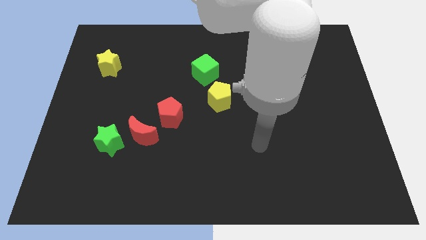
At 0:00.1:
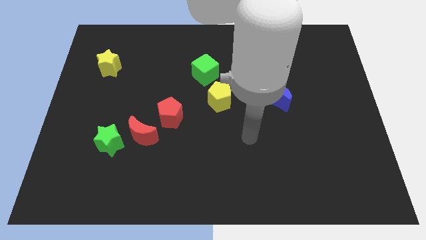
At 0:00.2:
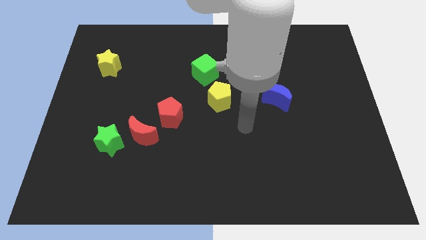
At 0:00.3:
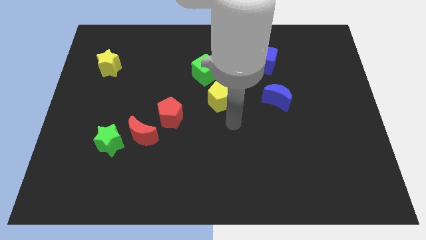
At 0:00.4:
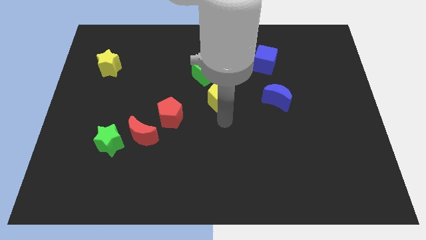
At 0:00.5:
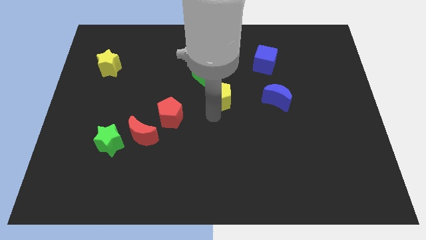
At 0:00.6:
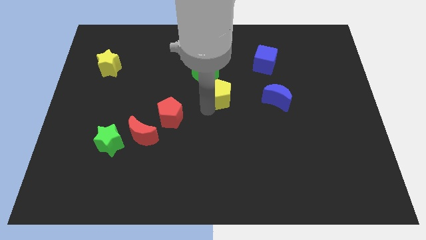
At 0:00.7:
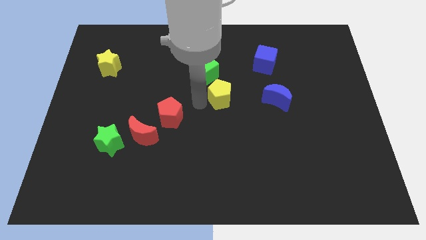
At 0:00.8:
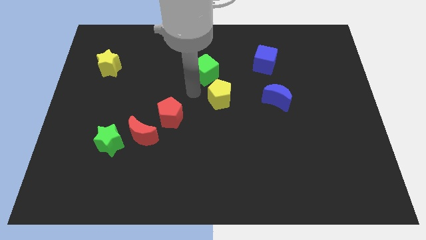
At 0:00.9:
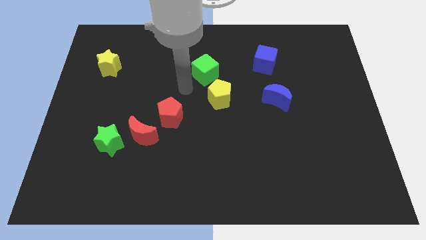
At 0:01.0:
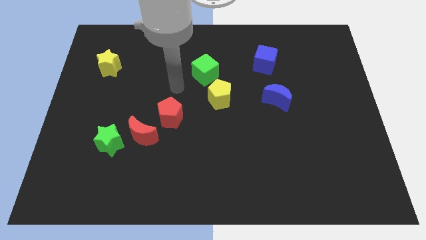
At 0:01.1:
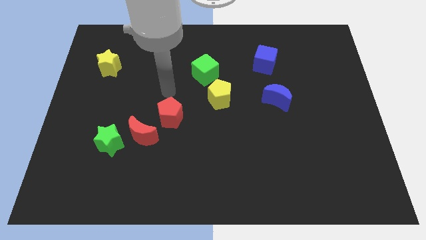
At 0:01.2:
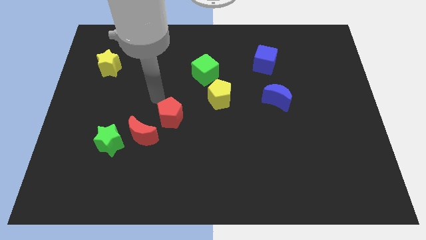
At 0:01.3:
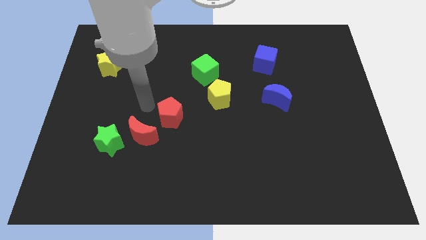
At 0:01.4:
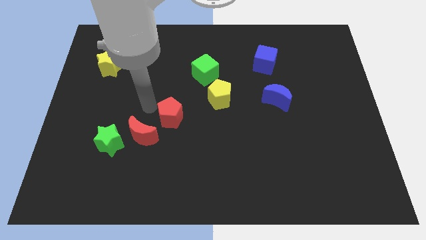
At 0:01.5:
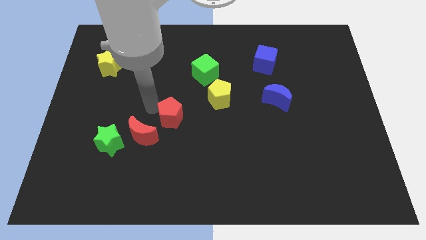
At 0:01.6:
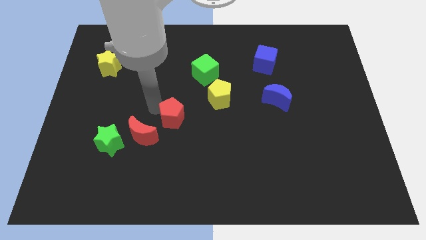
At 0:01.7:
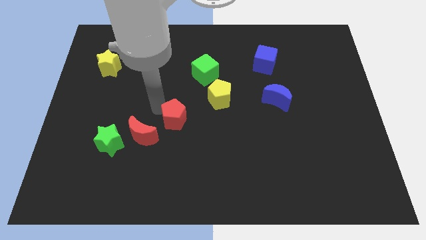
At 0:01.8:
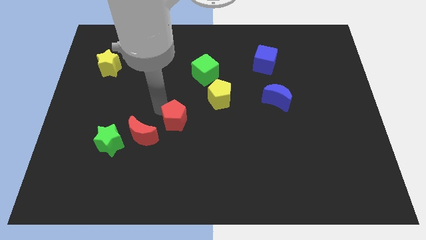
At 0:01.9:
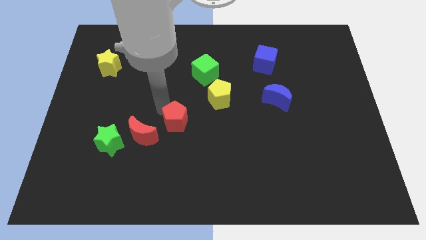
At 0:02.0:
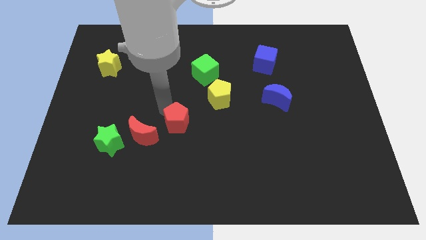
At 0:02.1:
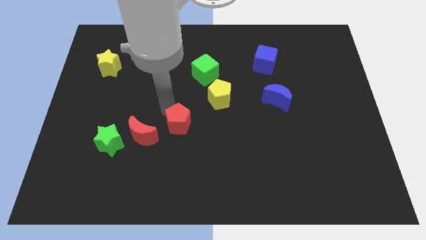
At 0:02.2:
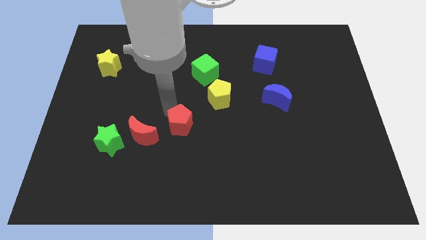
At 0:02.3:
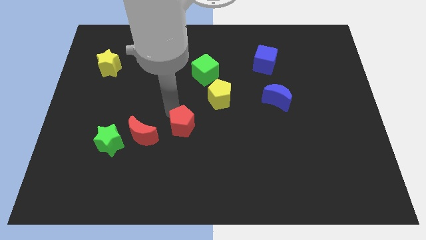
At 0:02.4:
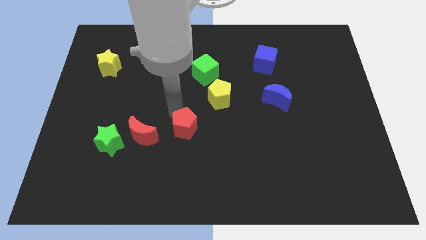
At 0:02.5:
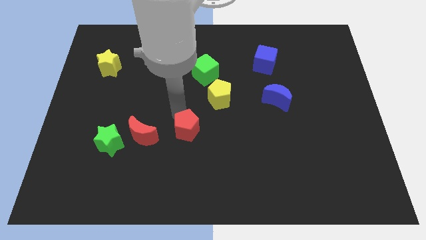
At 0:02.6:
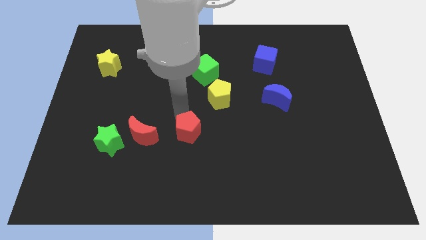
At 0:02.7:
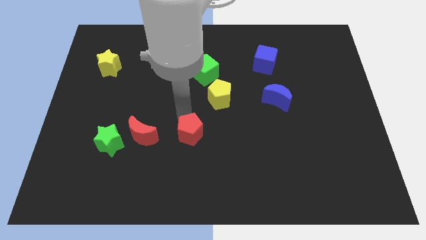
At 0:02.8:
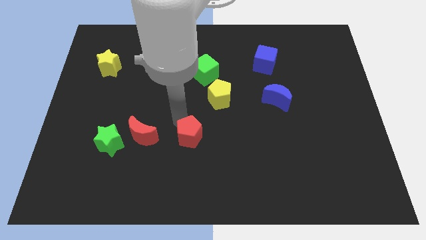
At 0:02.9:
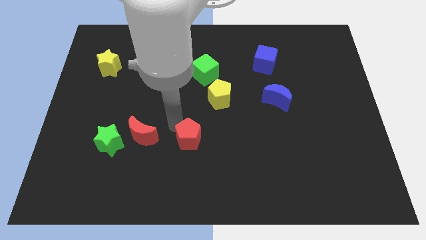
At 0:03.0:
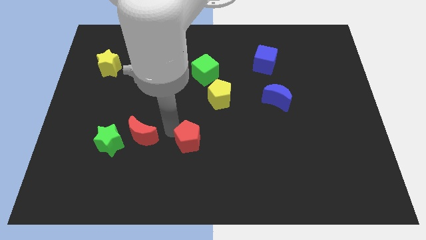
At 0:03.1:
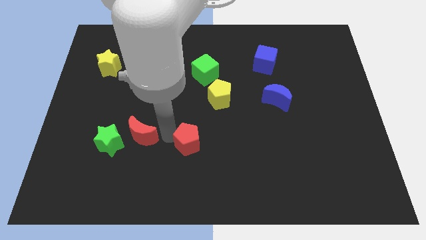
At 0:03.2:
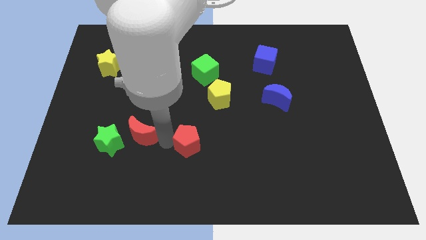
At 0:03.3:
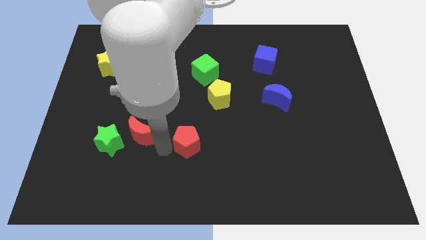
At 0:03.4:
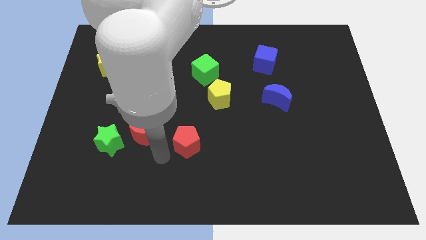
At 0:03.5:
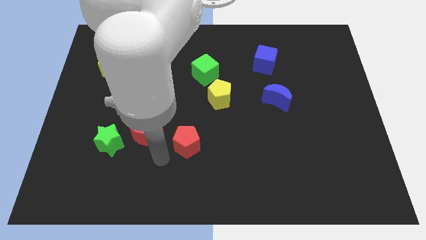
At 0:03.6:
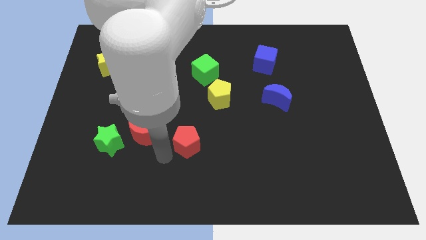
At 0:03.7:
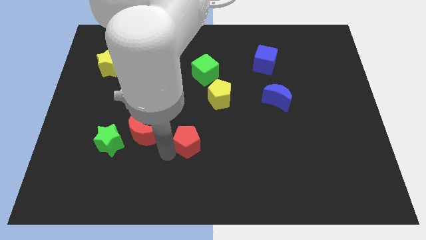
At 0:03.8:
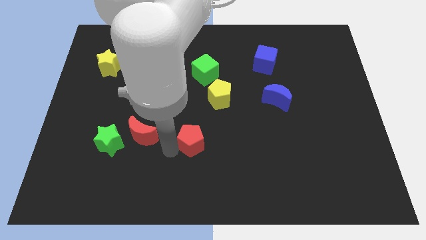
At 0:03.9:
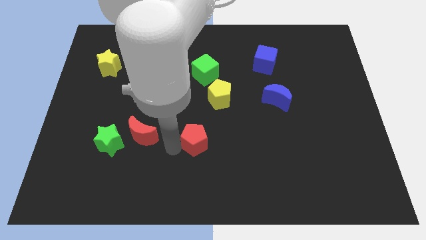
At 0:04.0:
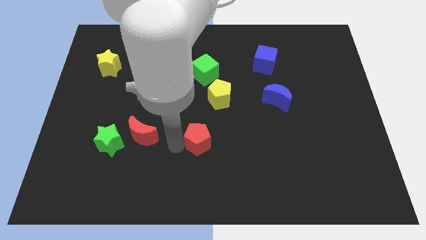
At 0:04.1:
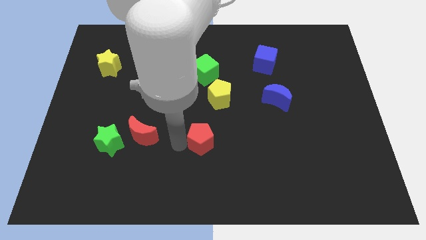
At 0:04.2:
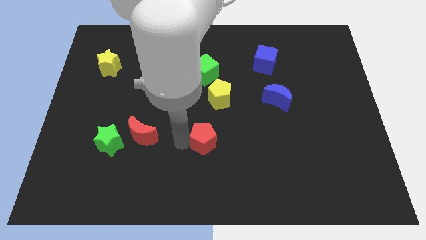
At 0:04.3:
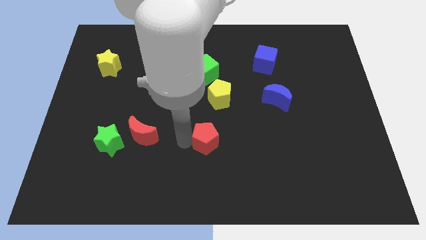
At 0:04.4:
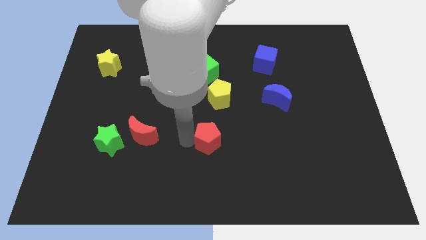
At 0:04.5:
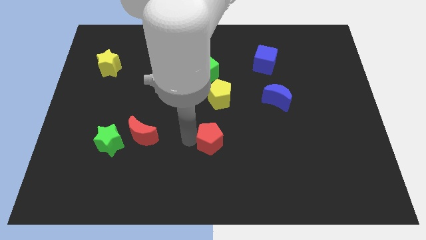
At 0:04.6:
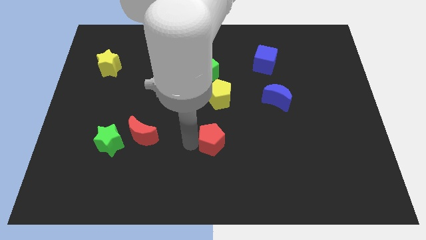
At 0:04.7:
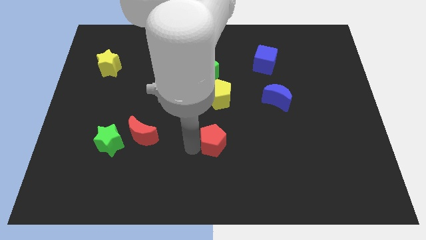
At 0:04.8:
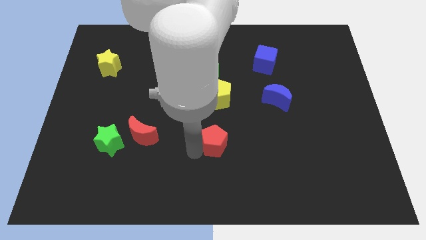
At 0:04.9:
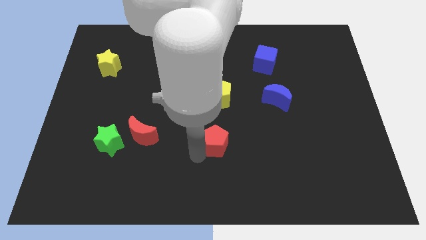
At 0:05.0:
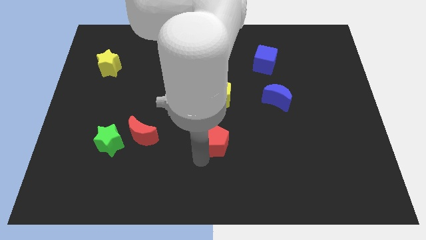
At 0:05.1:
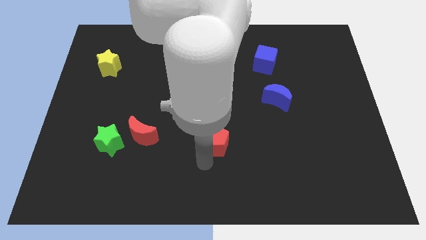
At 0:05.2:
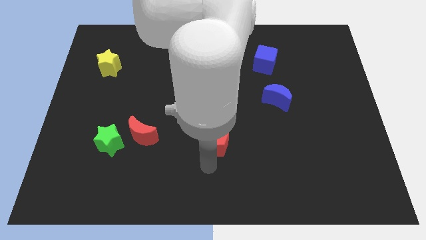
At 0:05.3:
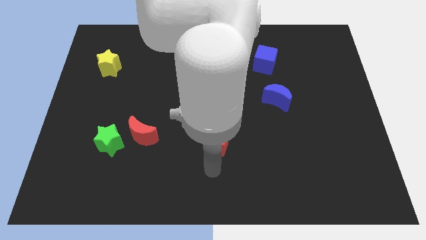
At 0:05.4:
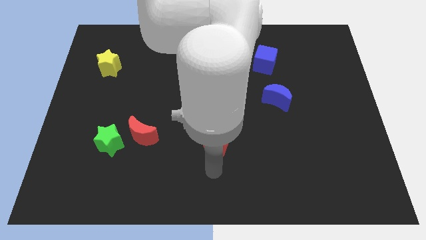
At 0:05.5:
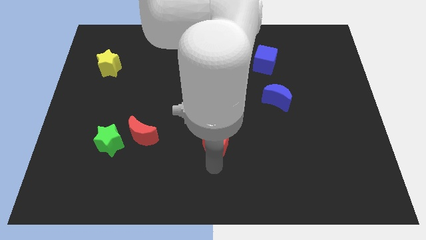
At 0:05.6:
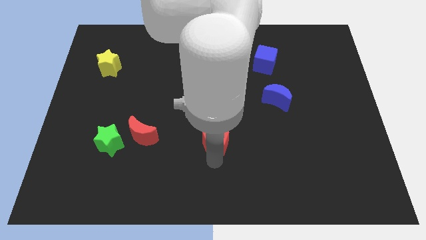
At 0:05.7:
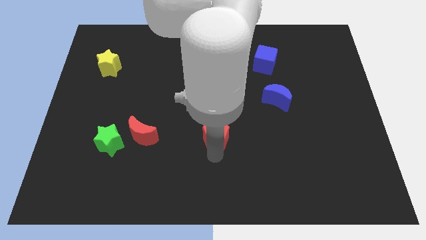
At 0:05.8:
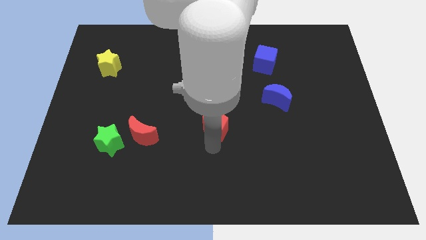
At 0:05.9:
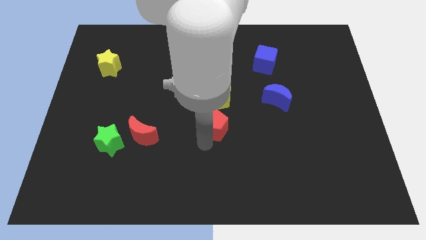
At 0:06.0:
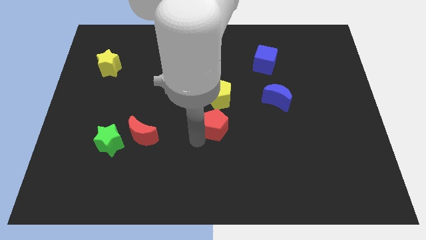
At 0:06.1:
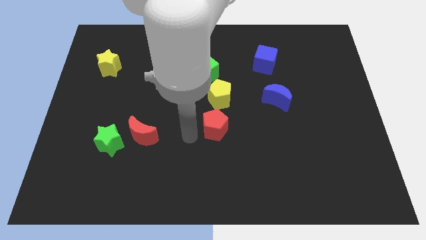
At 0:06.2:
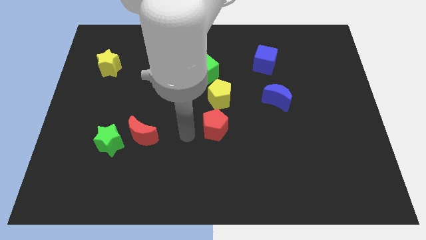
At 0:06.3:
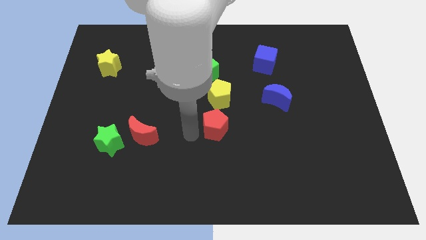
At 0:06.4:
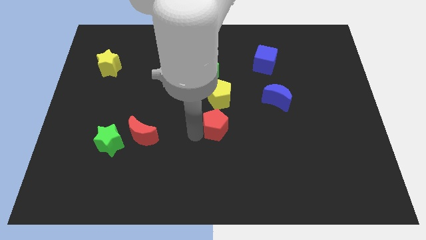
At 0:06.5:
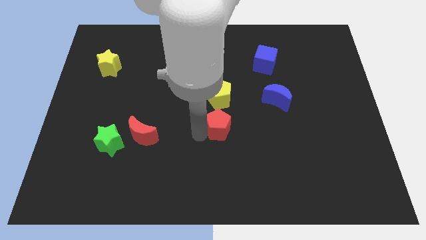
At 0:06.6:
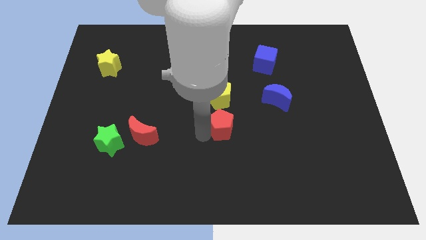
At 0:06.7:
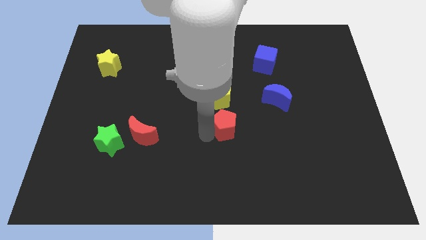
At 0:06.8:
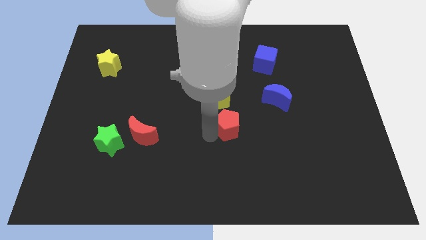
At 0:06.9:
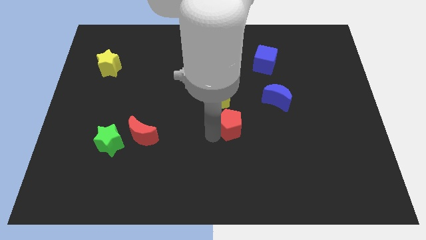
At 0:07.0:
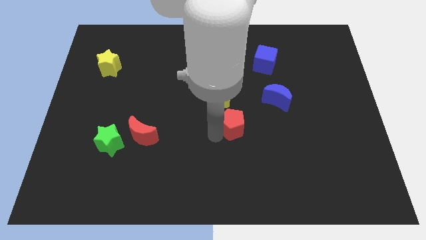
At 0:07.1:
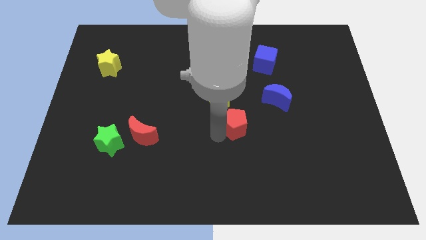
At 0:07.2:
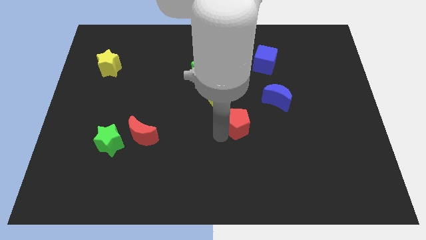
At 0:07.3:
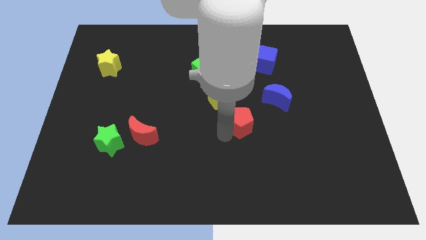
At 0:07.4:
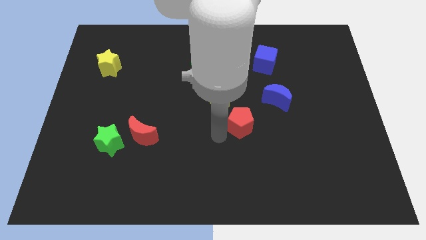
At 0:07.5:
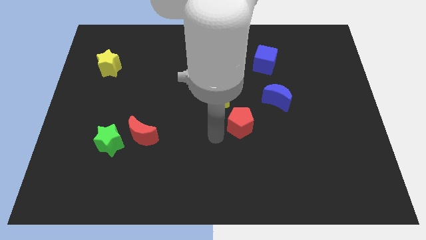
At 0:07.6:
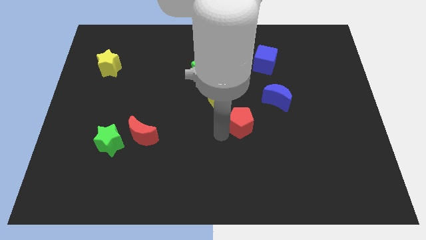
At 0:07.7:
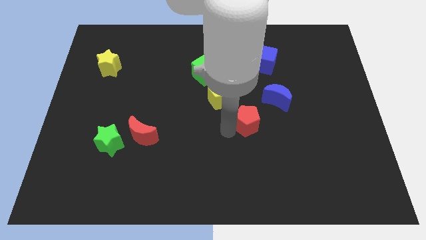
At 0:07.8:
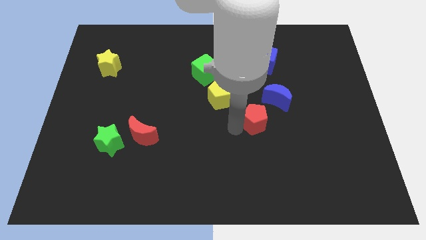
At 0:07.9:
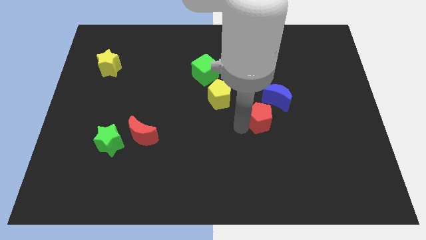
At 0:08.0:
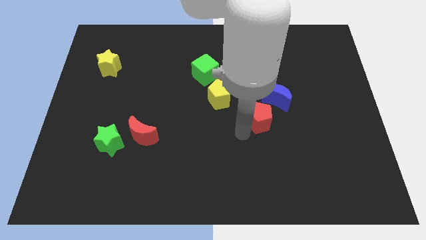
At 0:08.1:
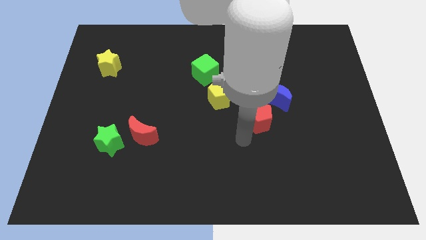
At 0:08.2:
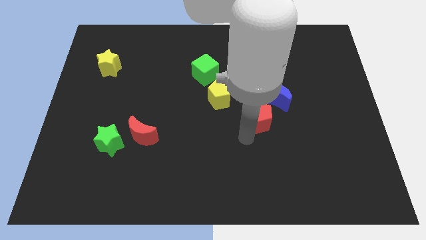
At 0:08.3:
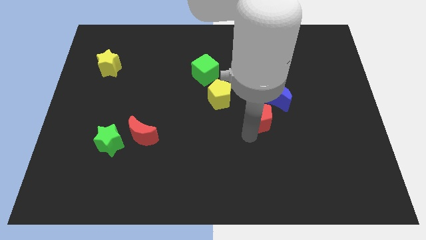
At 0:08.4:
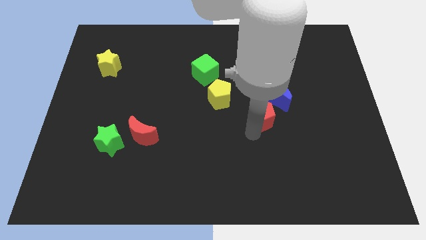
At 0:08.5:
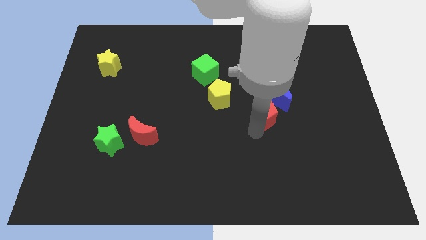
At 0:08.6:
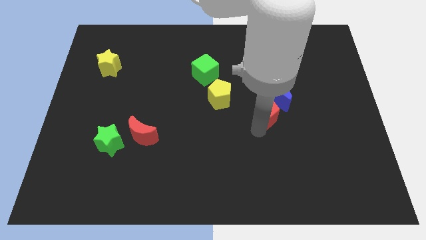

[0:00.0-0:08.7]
move the red pentagon to the blue moon
